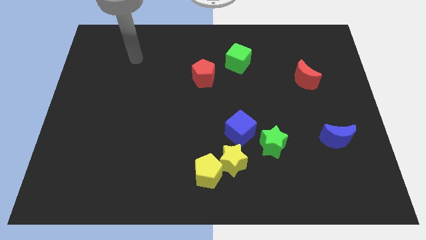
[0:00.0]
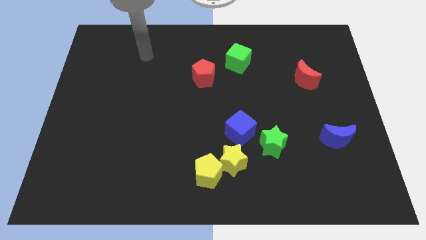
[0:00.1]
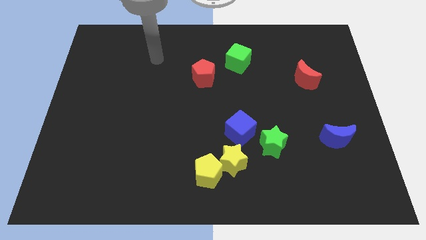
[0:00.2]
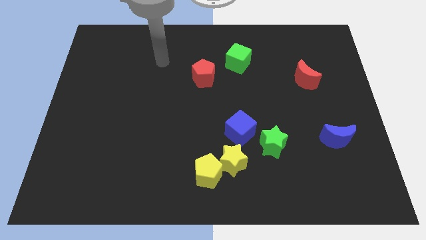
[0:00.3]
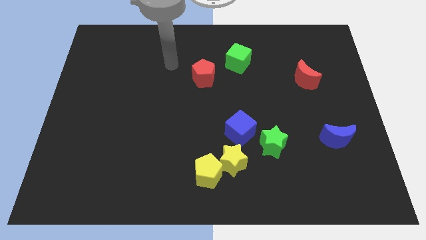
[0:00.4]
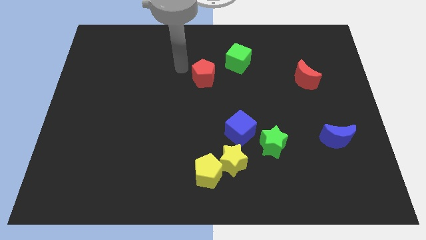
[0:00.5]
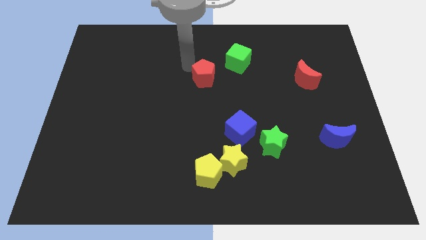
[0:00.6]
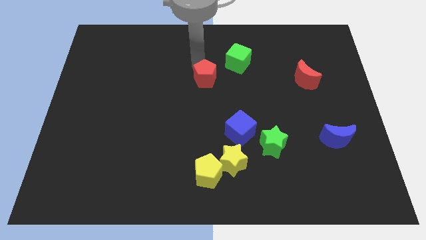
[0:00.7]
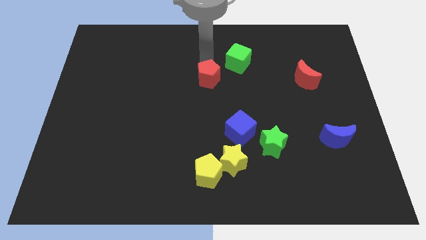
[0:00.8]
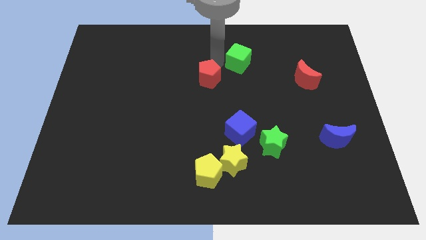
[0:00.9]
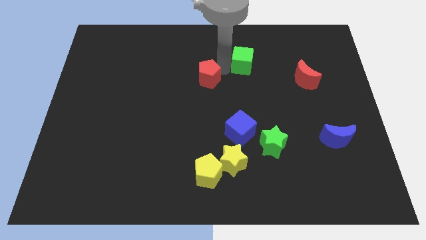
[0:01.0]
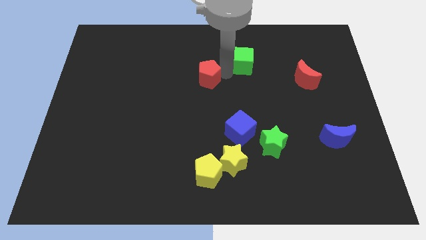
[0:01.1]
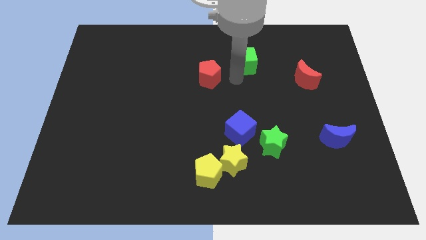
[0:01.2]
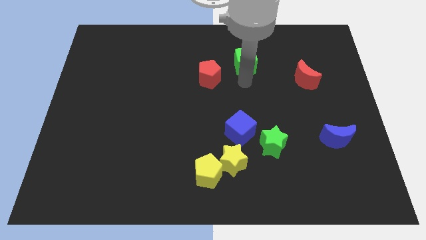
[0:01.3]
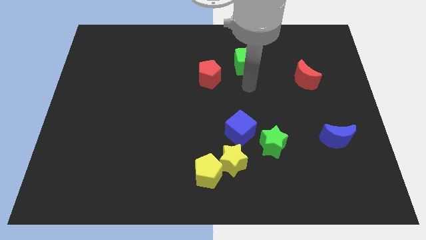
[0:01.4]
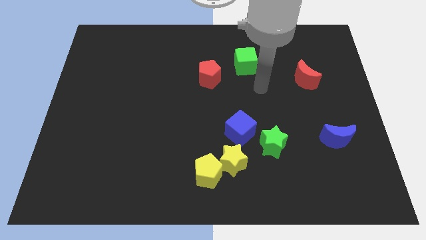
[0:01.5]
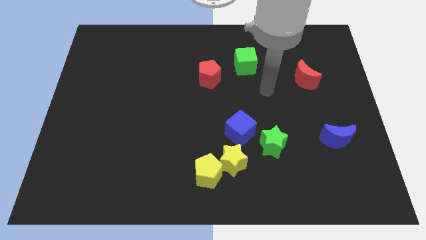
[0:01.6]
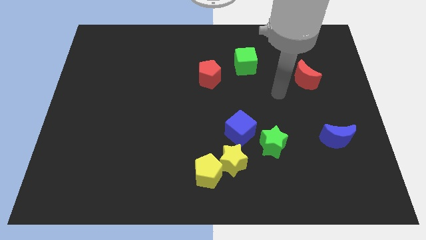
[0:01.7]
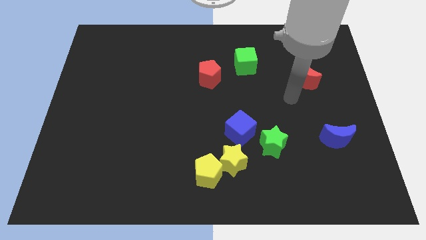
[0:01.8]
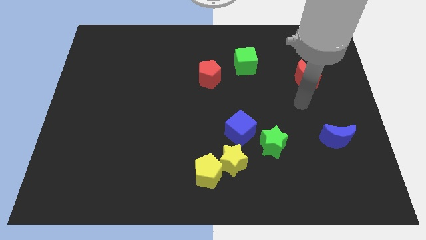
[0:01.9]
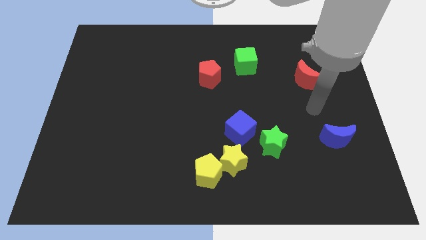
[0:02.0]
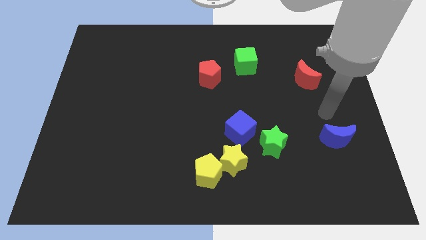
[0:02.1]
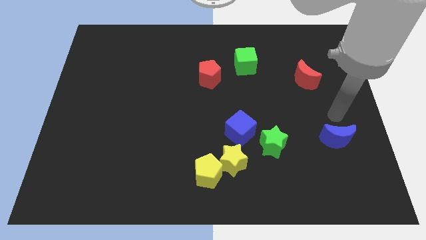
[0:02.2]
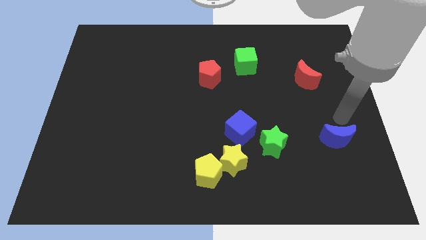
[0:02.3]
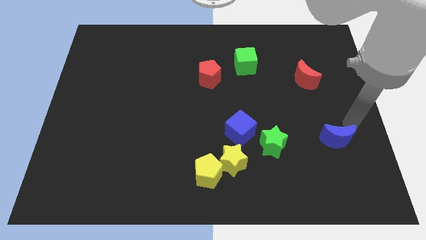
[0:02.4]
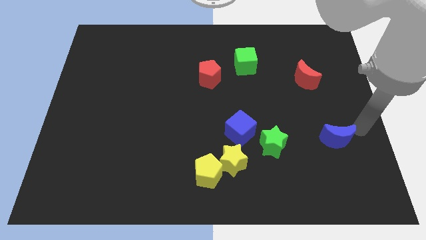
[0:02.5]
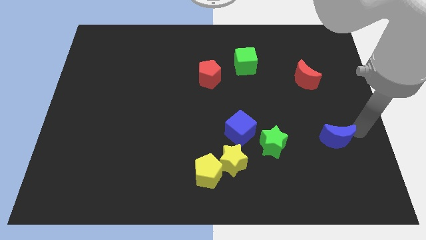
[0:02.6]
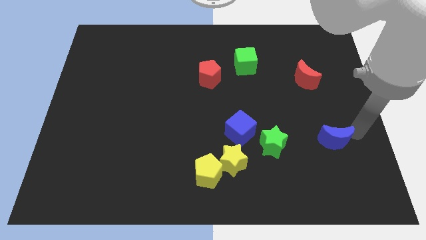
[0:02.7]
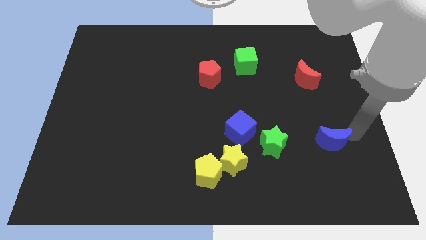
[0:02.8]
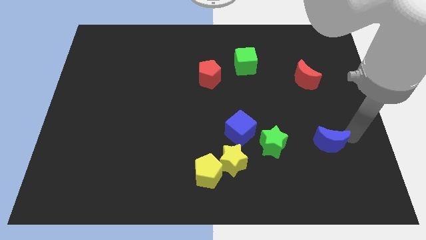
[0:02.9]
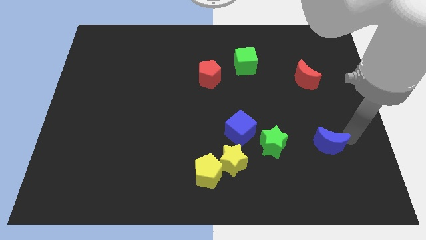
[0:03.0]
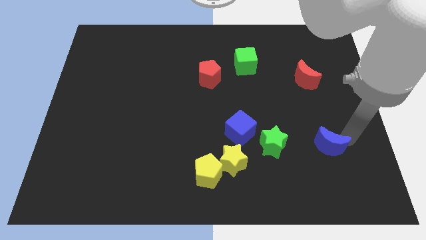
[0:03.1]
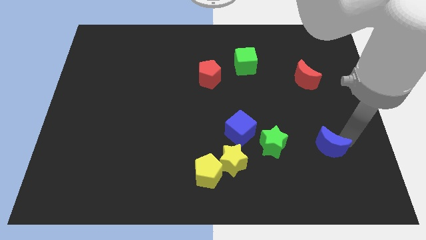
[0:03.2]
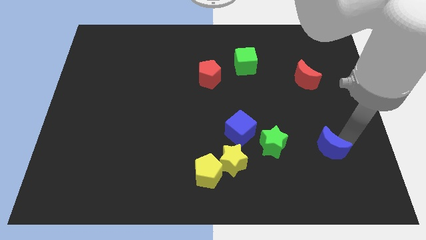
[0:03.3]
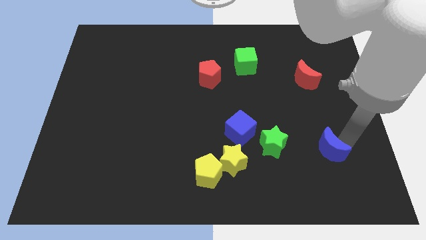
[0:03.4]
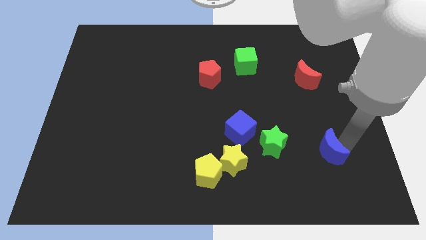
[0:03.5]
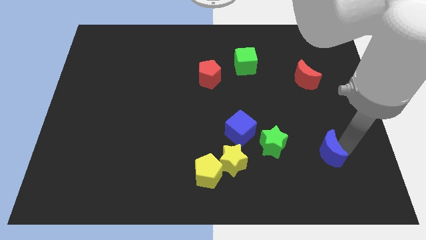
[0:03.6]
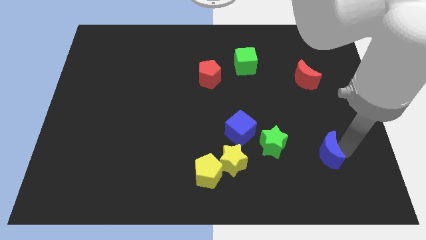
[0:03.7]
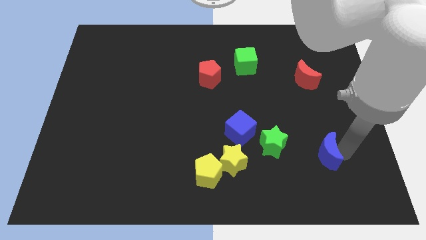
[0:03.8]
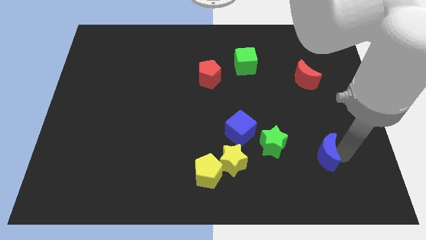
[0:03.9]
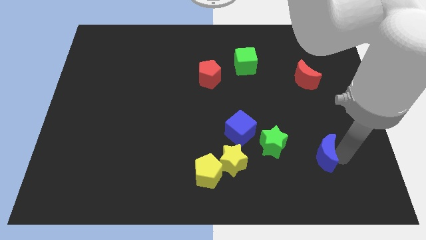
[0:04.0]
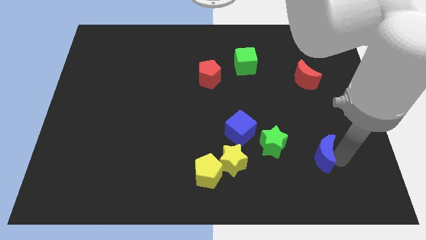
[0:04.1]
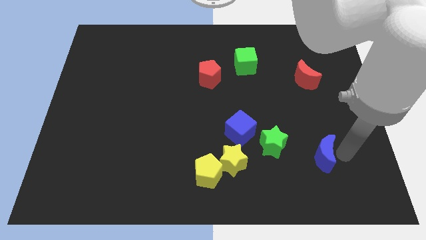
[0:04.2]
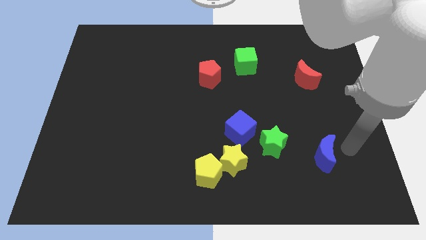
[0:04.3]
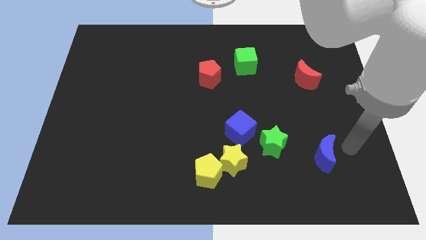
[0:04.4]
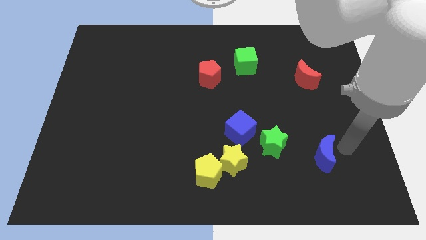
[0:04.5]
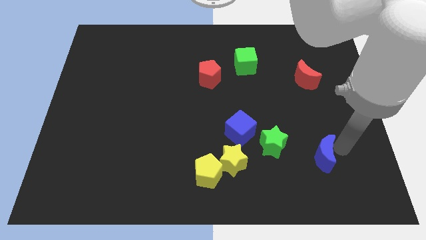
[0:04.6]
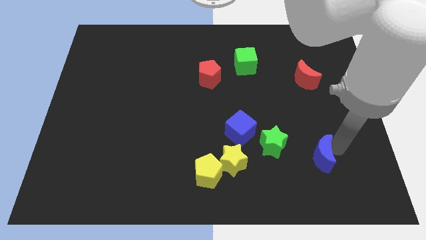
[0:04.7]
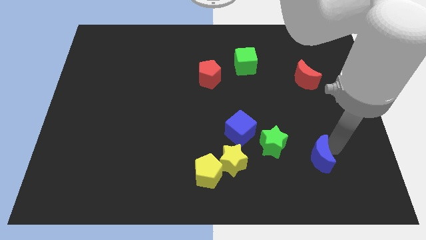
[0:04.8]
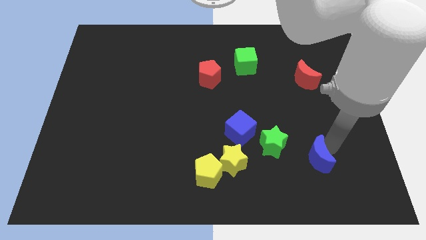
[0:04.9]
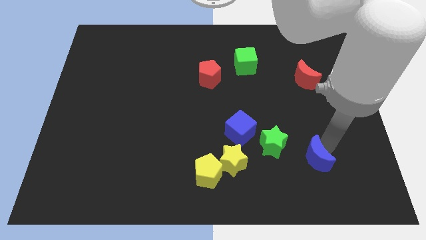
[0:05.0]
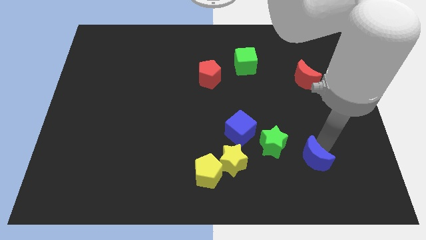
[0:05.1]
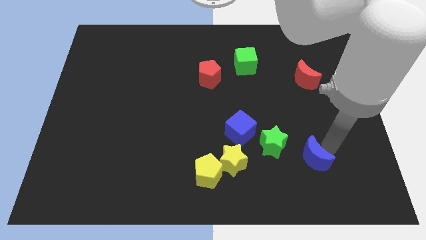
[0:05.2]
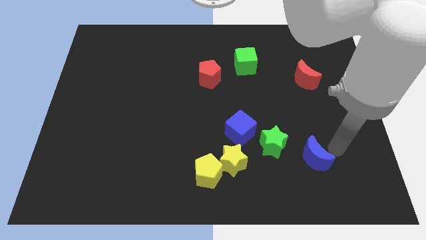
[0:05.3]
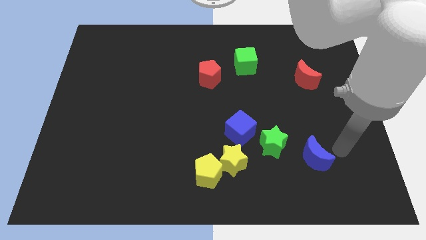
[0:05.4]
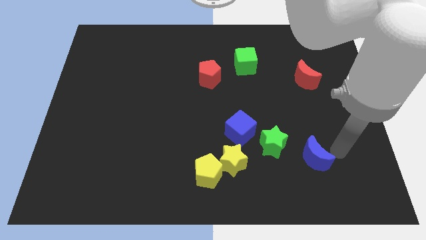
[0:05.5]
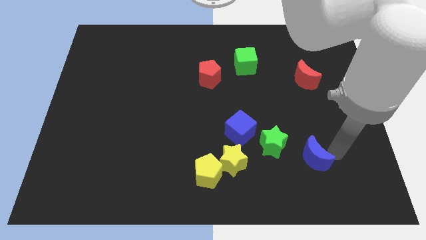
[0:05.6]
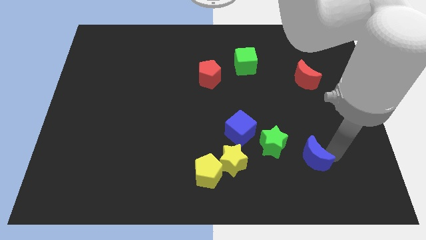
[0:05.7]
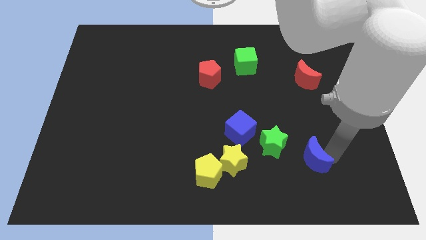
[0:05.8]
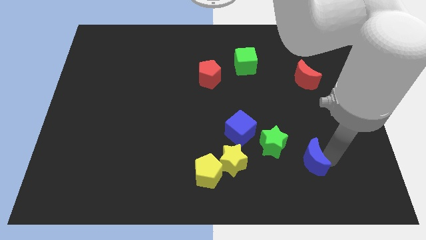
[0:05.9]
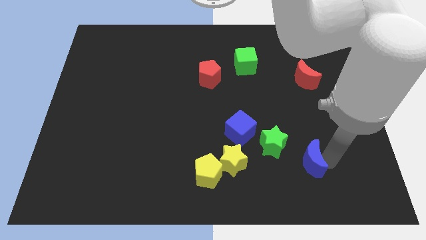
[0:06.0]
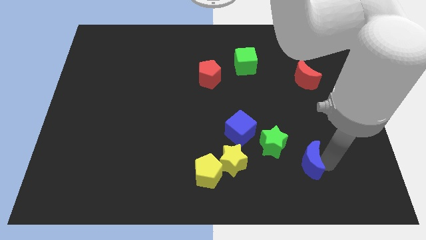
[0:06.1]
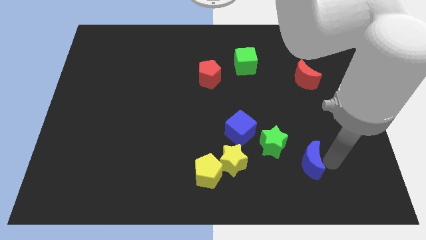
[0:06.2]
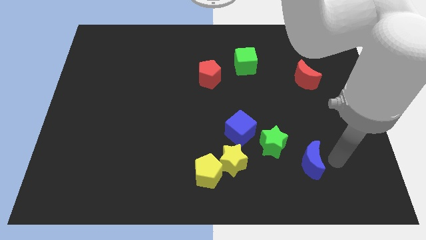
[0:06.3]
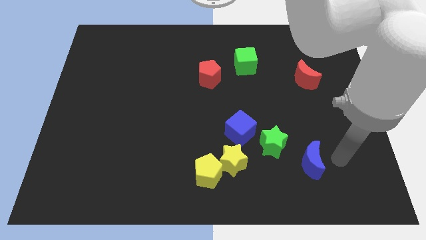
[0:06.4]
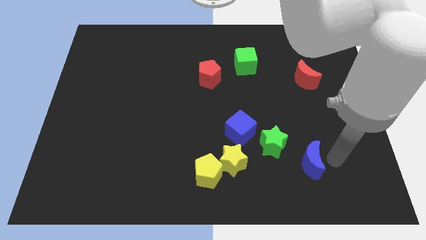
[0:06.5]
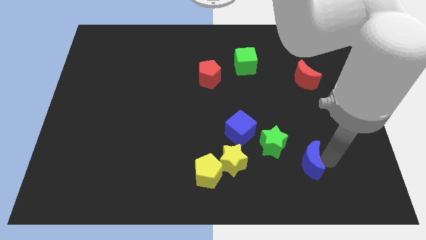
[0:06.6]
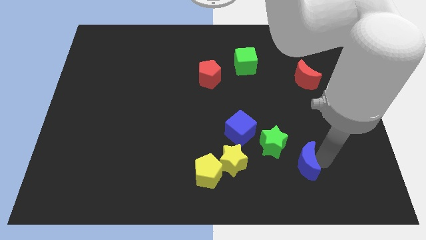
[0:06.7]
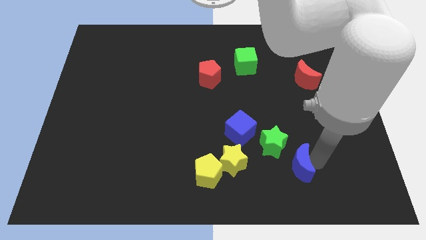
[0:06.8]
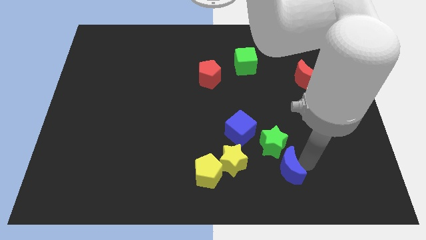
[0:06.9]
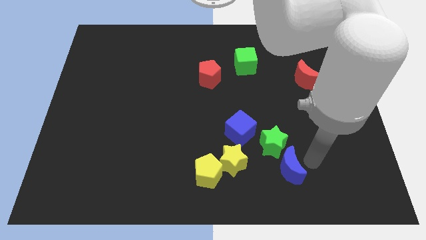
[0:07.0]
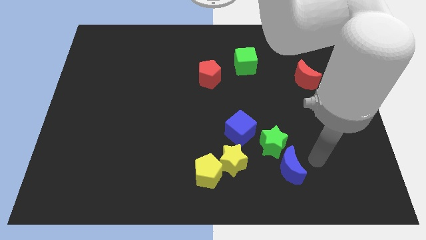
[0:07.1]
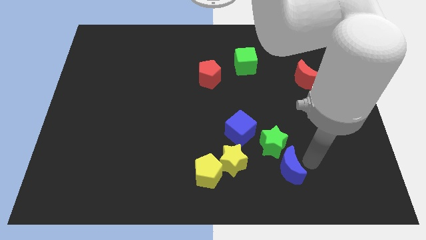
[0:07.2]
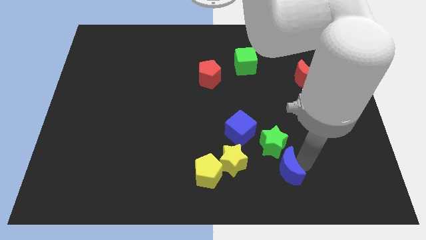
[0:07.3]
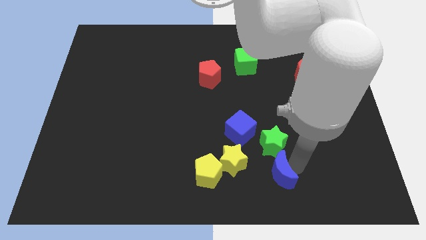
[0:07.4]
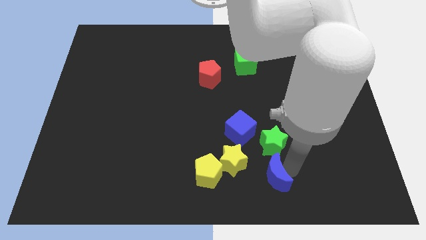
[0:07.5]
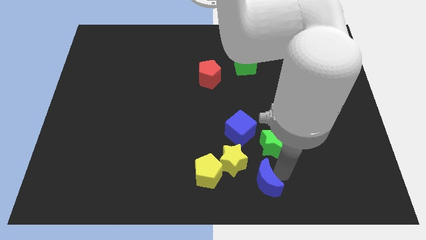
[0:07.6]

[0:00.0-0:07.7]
move the blue moon to the bottom side

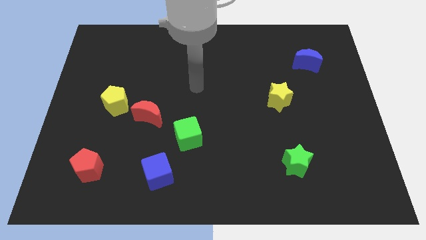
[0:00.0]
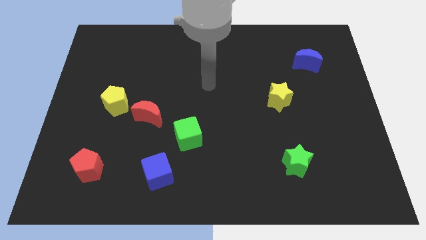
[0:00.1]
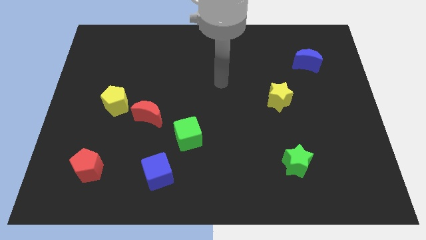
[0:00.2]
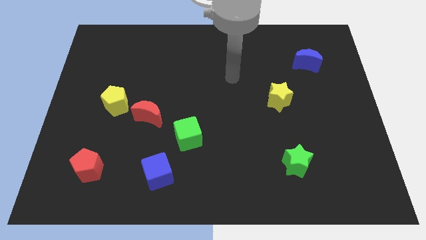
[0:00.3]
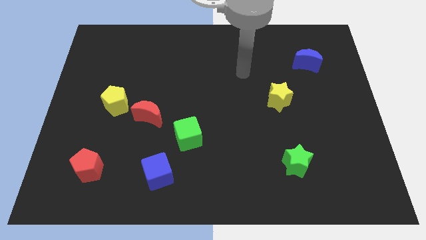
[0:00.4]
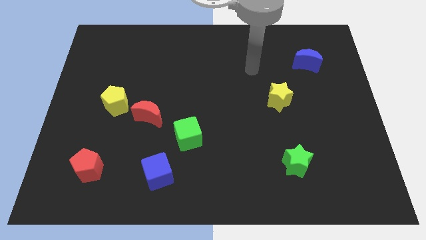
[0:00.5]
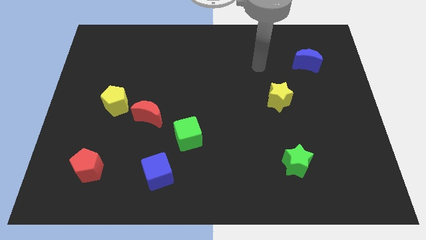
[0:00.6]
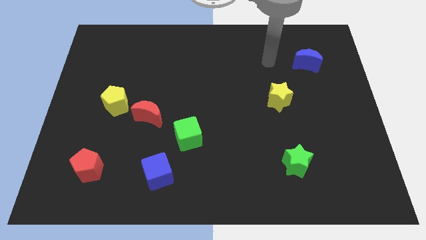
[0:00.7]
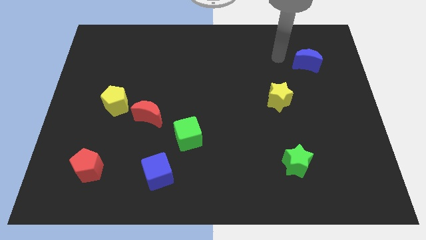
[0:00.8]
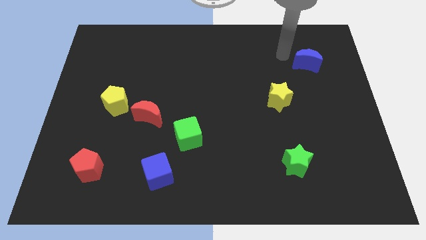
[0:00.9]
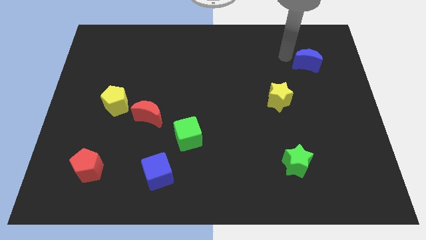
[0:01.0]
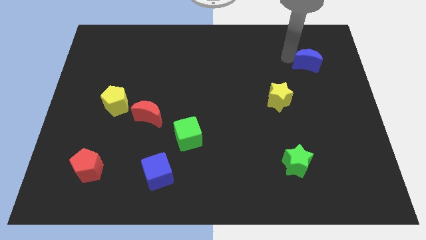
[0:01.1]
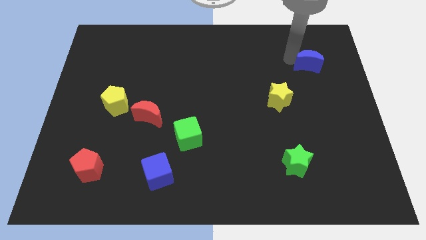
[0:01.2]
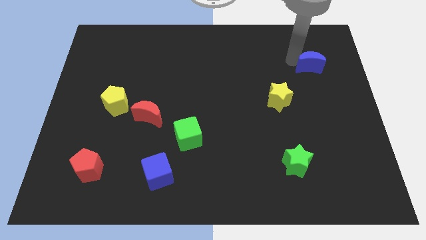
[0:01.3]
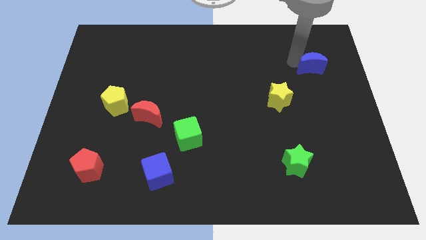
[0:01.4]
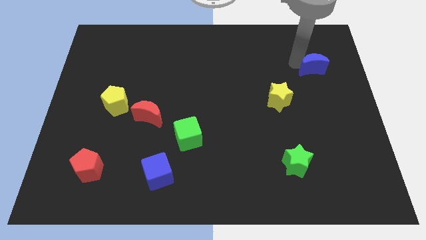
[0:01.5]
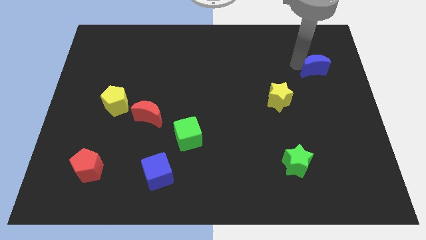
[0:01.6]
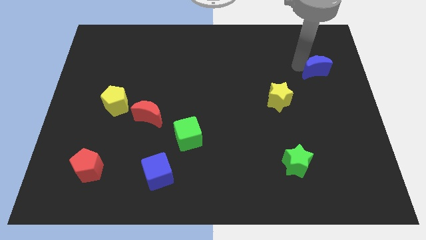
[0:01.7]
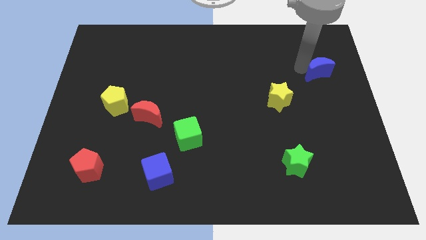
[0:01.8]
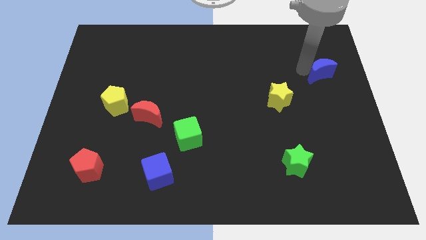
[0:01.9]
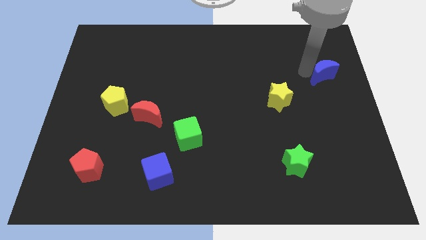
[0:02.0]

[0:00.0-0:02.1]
move the blue moon to the right side
